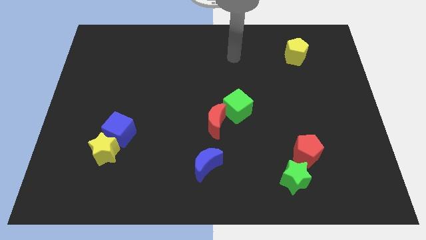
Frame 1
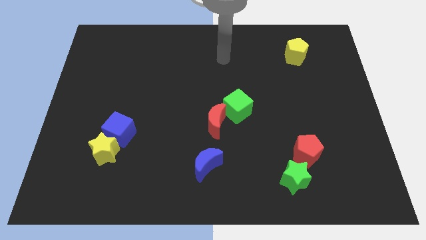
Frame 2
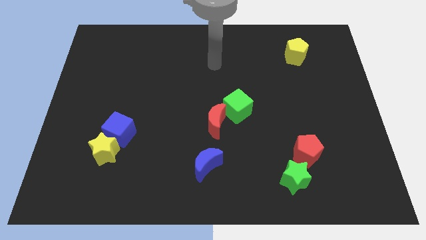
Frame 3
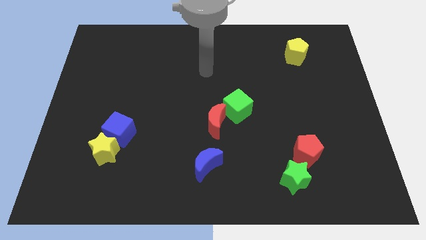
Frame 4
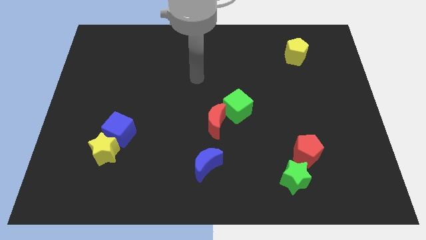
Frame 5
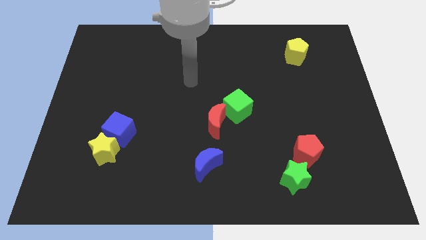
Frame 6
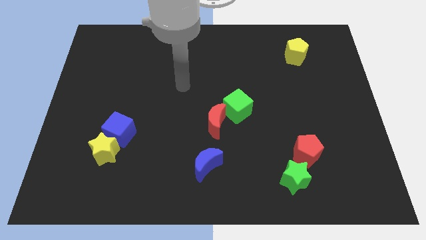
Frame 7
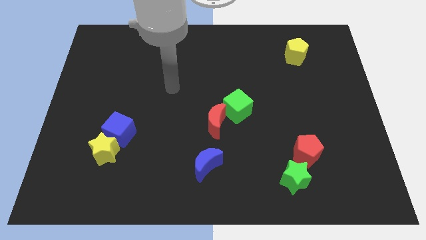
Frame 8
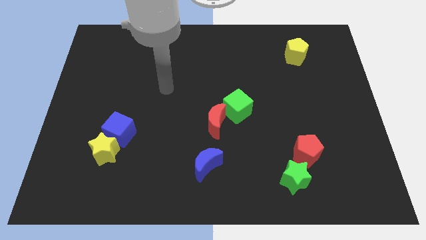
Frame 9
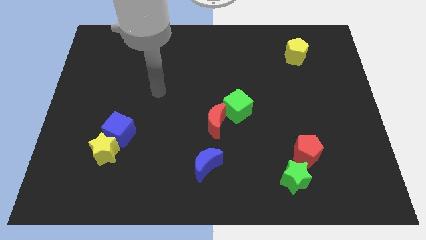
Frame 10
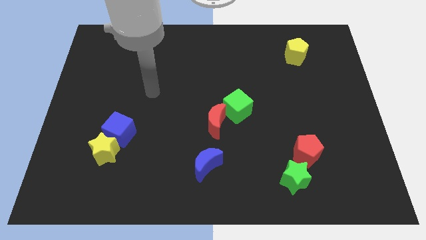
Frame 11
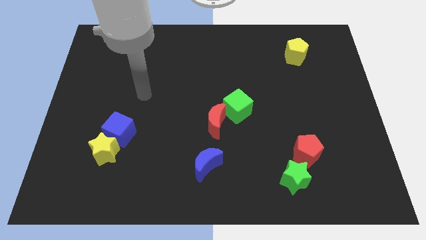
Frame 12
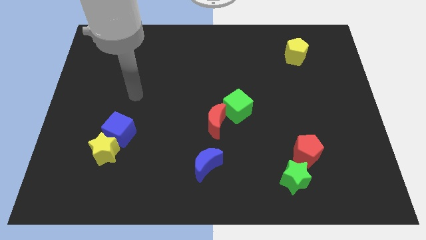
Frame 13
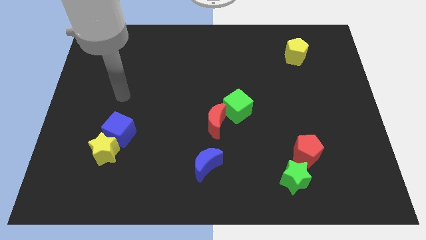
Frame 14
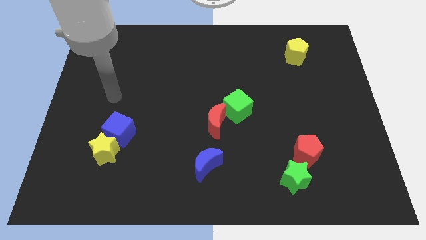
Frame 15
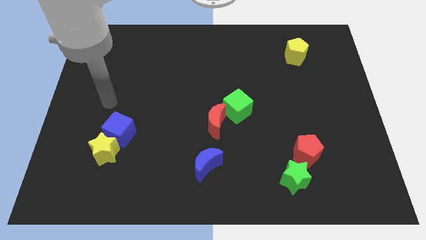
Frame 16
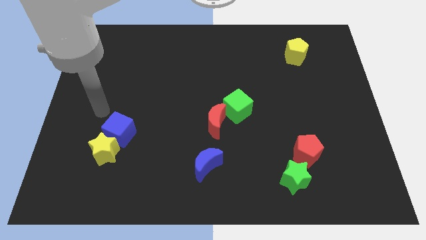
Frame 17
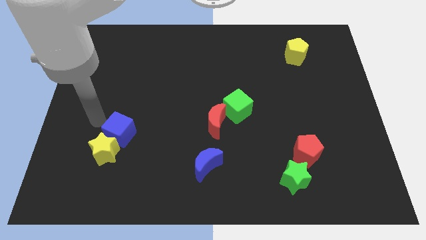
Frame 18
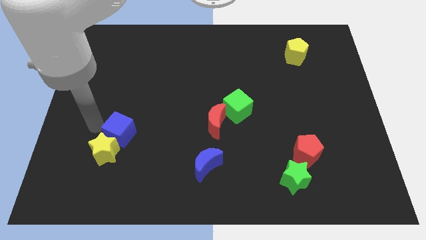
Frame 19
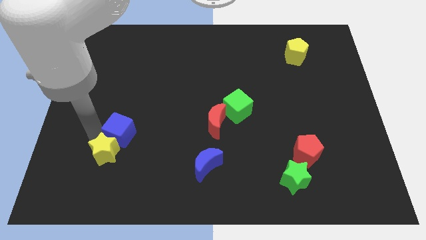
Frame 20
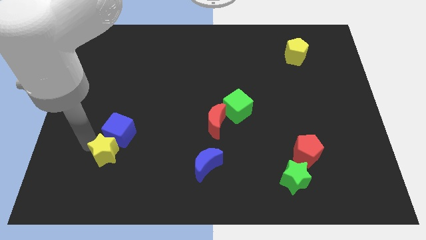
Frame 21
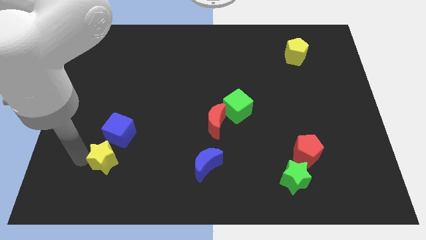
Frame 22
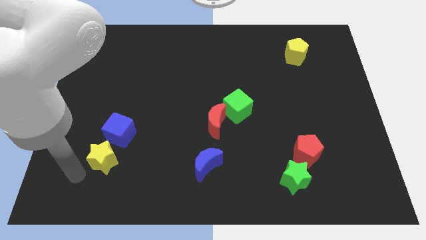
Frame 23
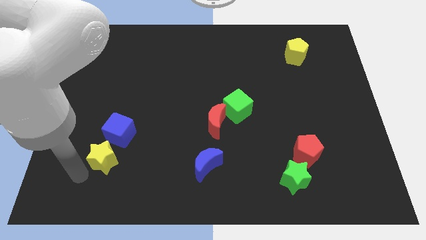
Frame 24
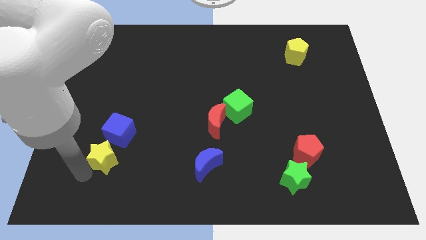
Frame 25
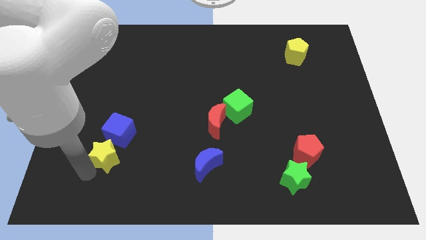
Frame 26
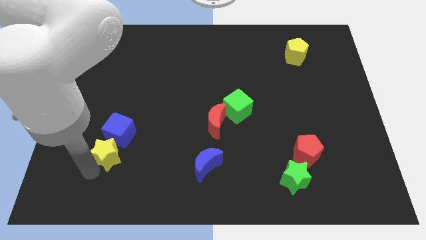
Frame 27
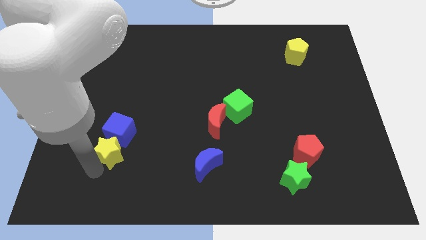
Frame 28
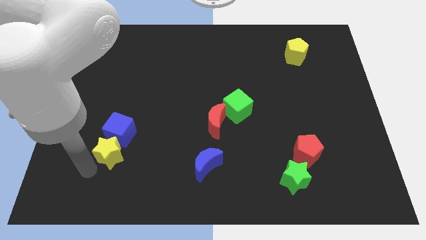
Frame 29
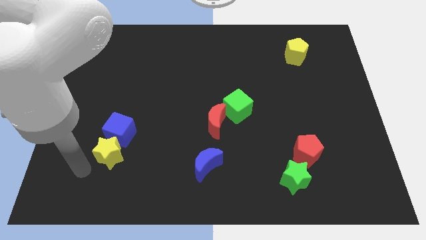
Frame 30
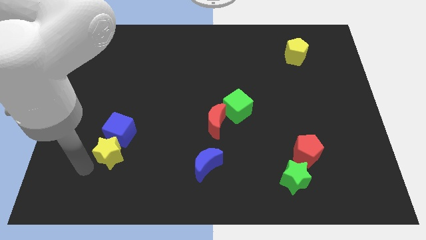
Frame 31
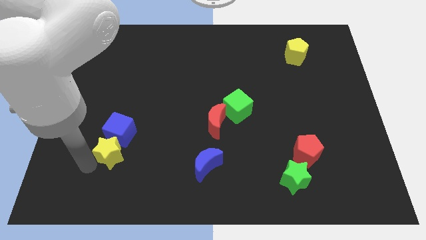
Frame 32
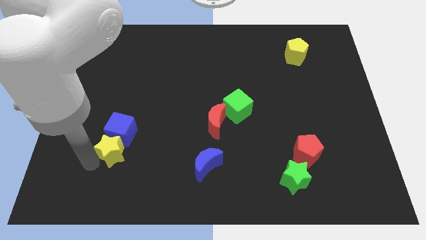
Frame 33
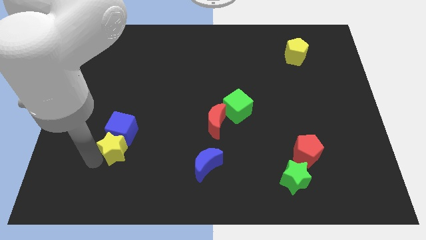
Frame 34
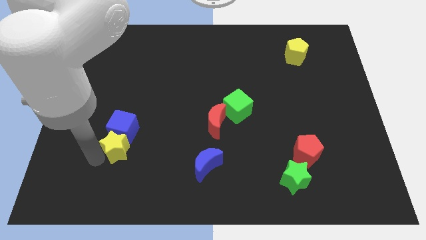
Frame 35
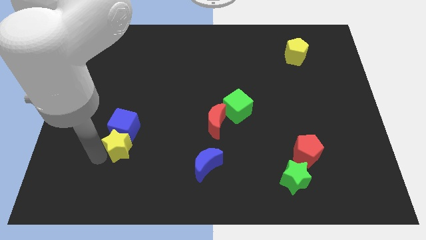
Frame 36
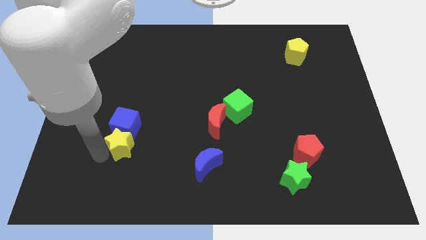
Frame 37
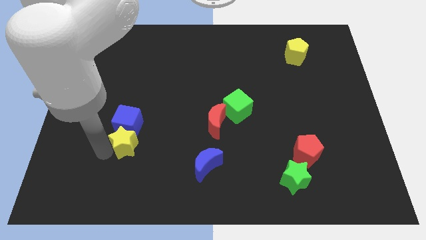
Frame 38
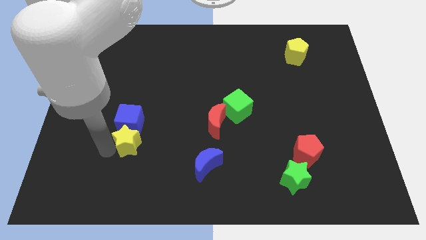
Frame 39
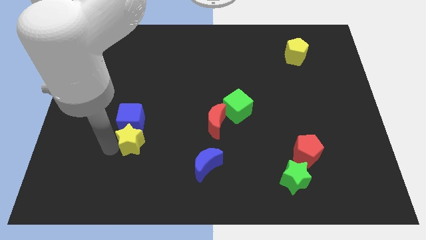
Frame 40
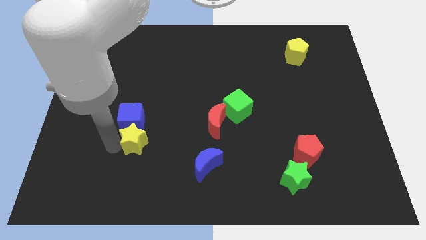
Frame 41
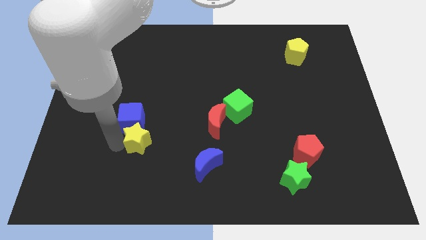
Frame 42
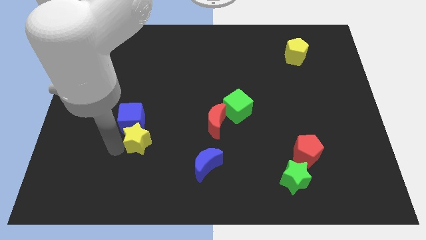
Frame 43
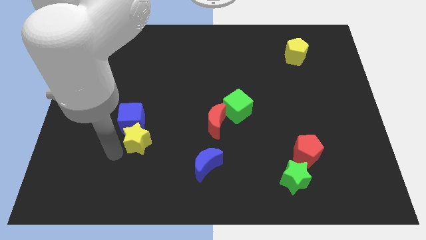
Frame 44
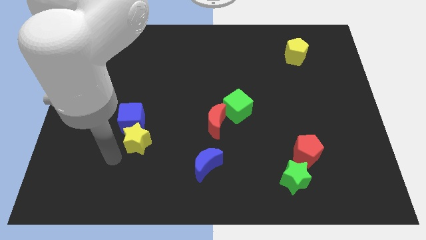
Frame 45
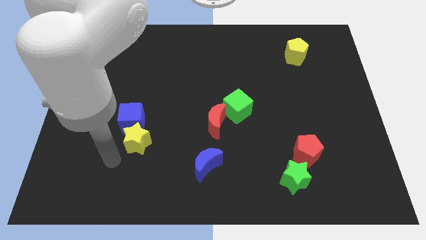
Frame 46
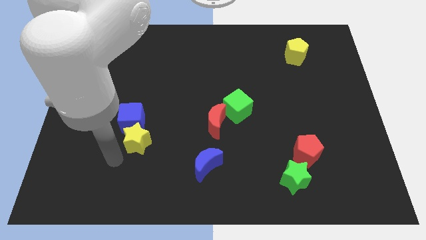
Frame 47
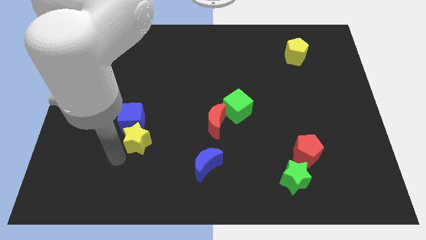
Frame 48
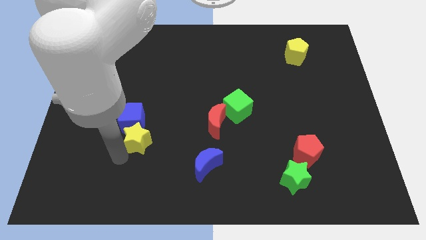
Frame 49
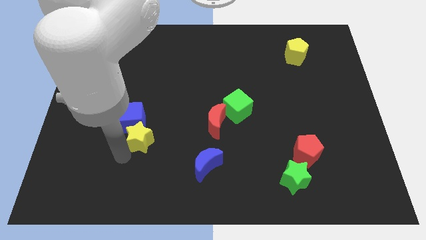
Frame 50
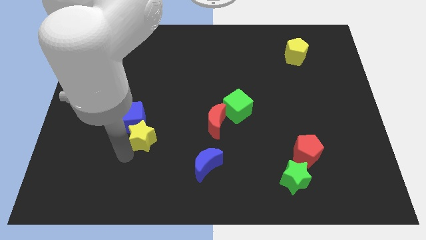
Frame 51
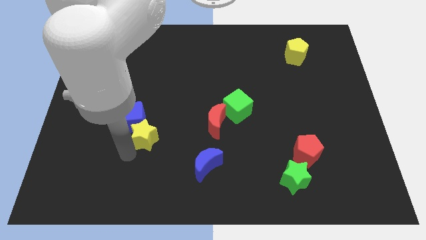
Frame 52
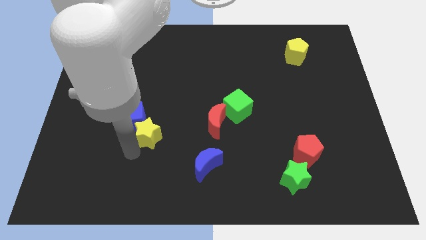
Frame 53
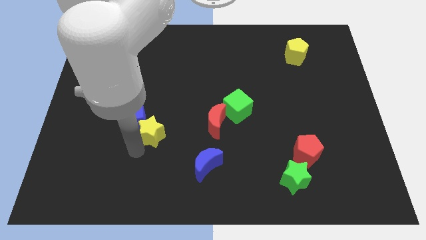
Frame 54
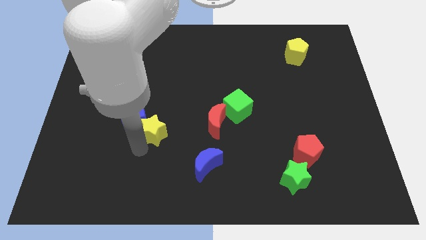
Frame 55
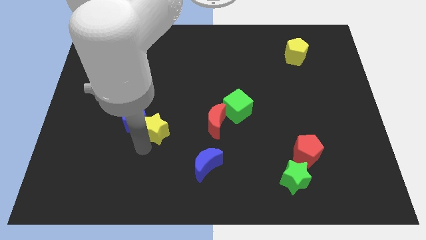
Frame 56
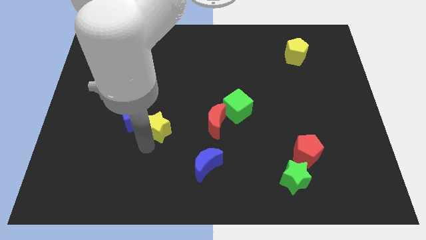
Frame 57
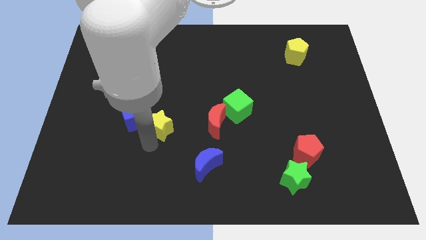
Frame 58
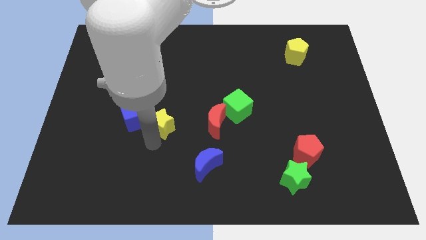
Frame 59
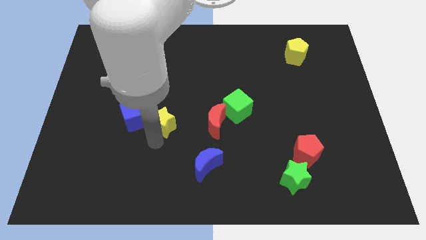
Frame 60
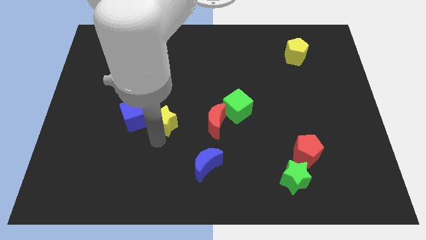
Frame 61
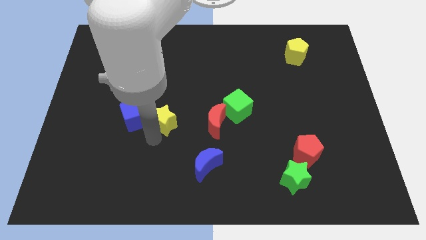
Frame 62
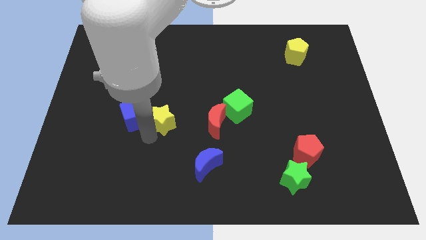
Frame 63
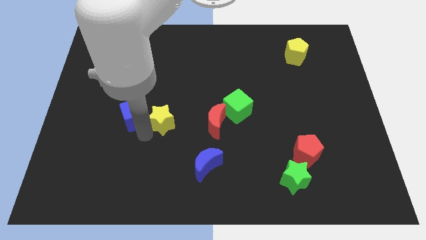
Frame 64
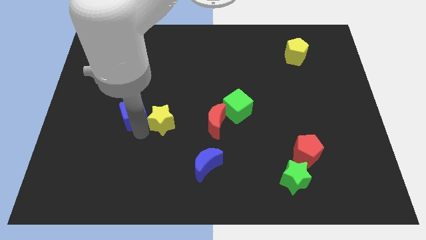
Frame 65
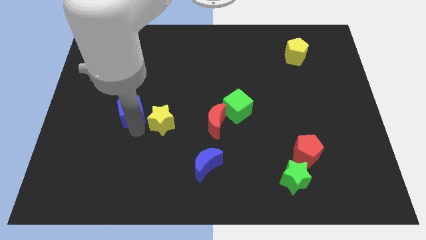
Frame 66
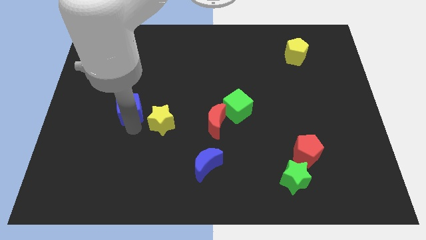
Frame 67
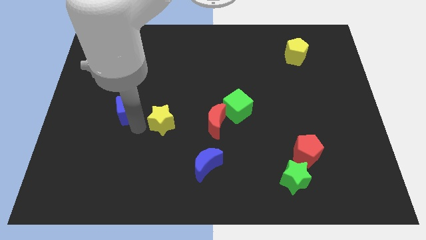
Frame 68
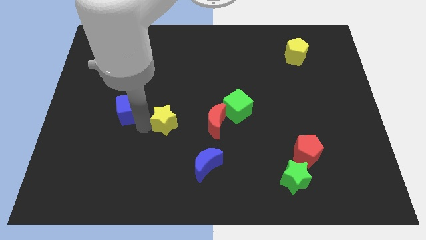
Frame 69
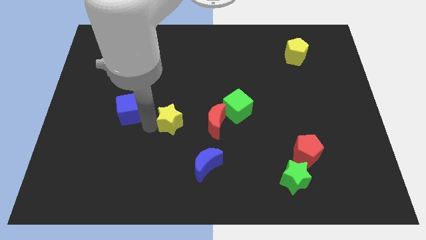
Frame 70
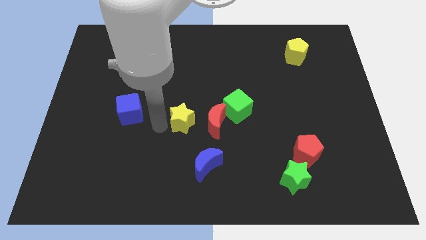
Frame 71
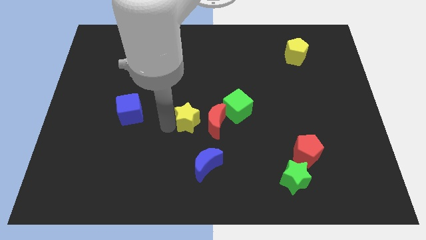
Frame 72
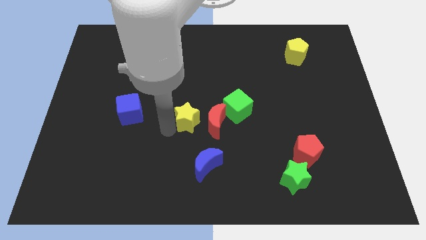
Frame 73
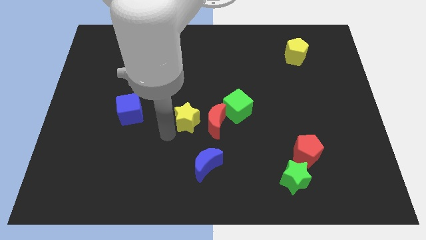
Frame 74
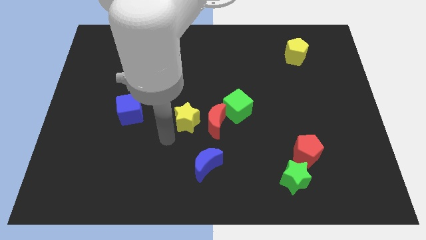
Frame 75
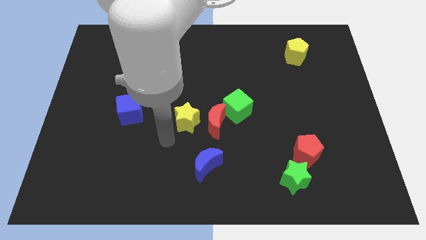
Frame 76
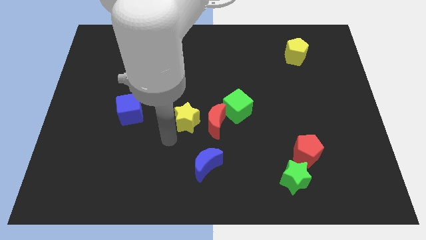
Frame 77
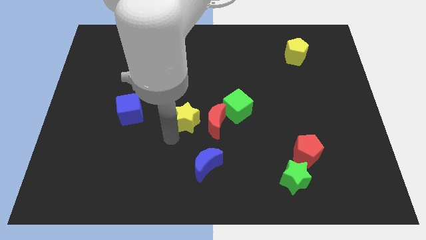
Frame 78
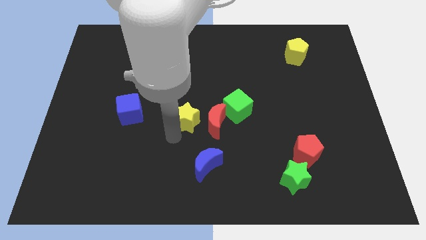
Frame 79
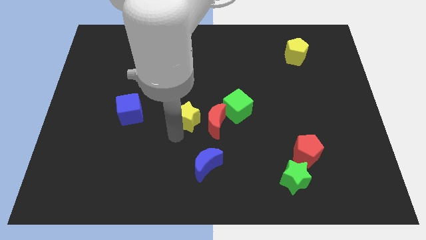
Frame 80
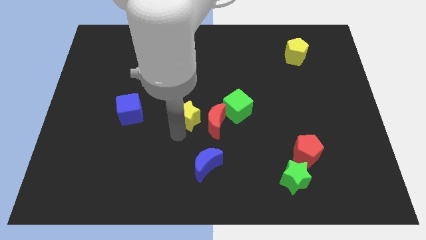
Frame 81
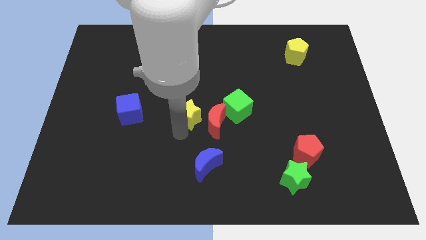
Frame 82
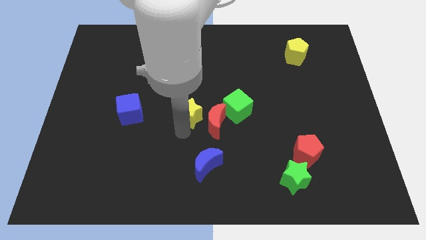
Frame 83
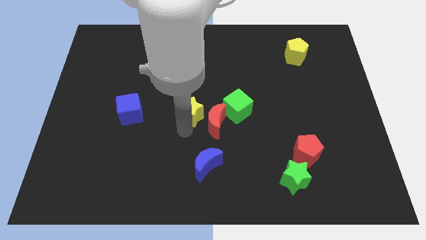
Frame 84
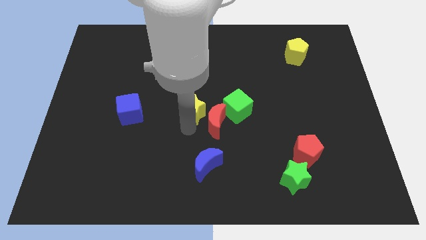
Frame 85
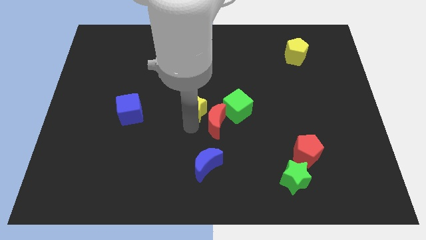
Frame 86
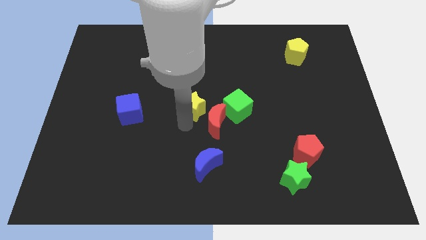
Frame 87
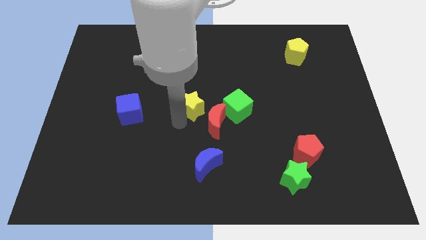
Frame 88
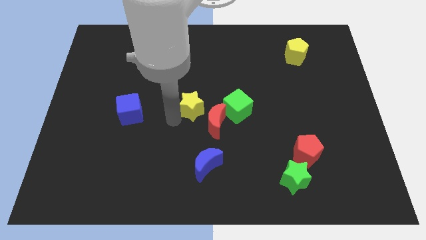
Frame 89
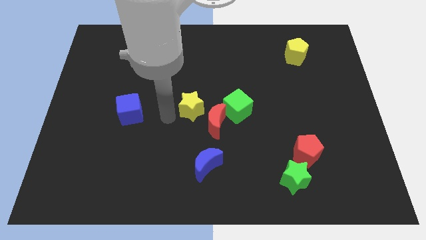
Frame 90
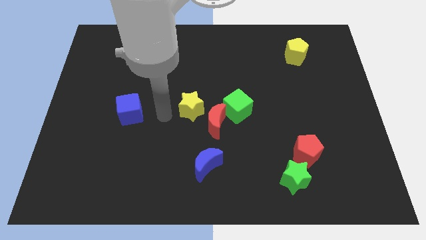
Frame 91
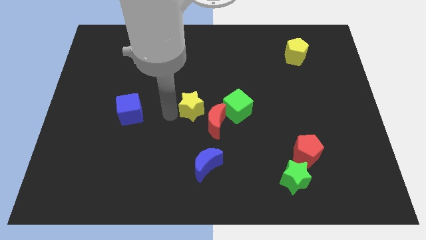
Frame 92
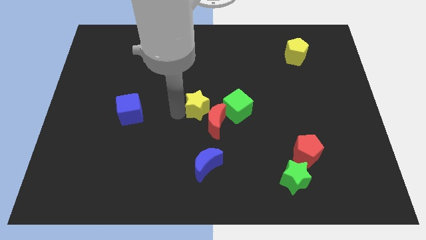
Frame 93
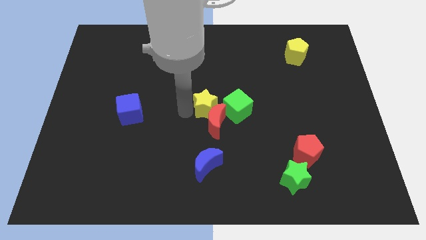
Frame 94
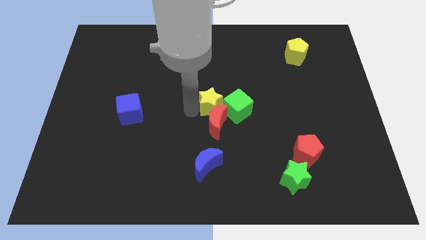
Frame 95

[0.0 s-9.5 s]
push the yellow star towards the green cube
